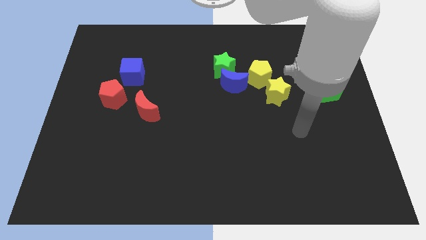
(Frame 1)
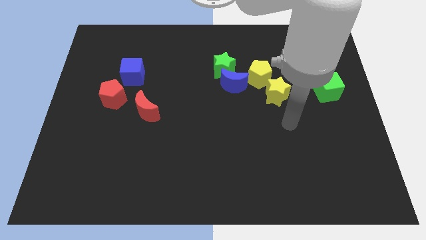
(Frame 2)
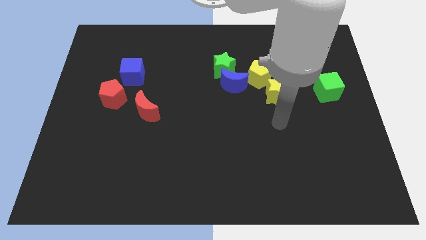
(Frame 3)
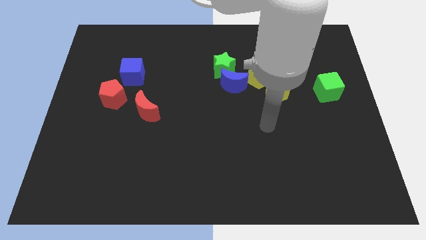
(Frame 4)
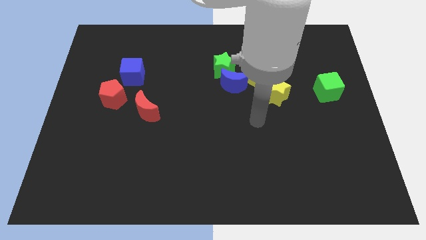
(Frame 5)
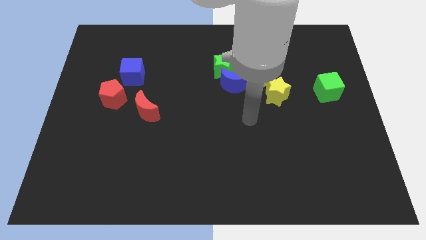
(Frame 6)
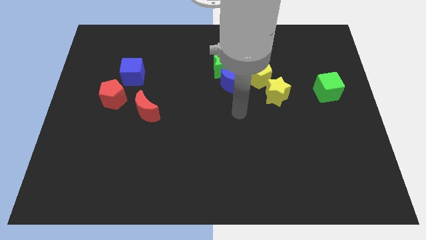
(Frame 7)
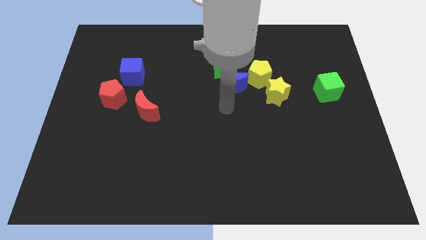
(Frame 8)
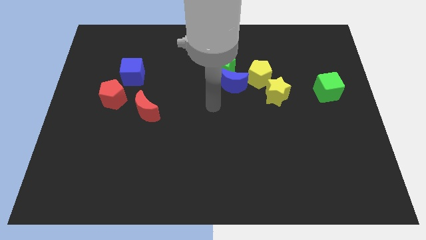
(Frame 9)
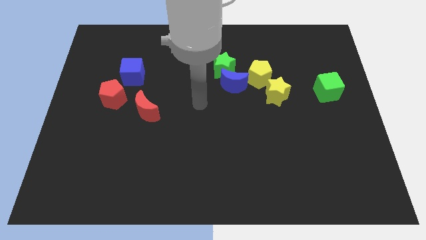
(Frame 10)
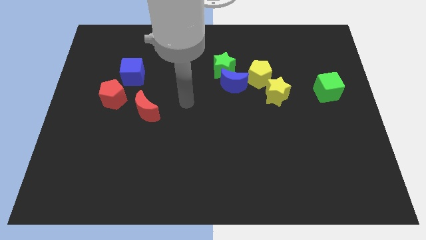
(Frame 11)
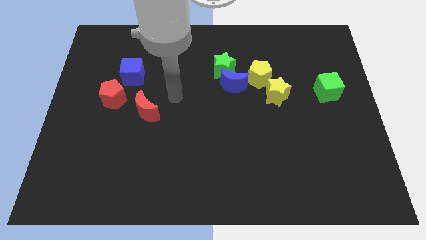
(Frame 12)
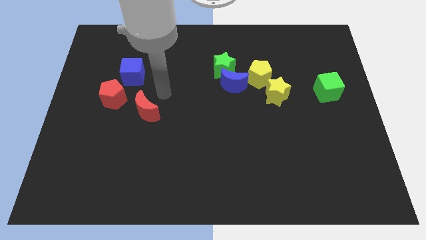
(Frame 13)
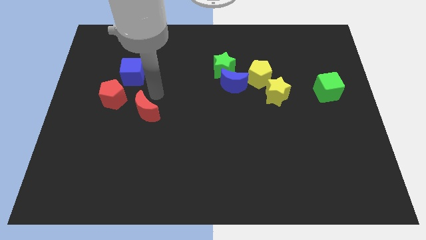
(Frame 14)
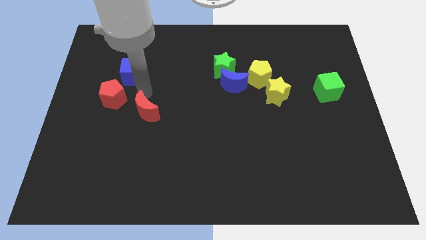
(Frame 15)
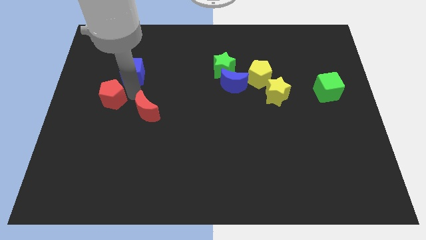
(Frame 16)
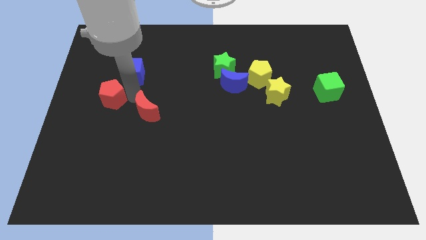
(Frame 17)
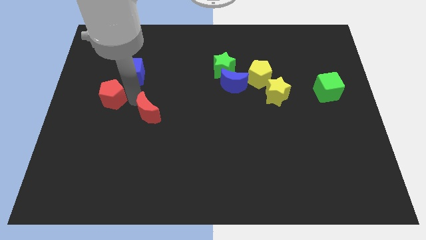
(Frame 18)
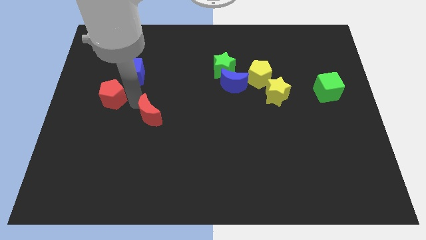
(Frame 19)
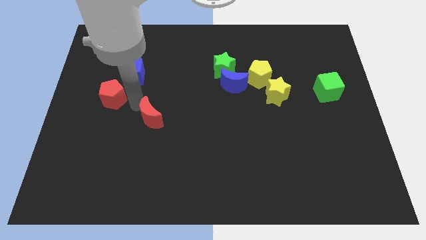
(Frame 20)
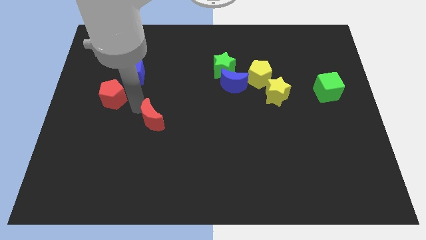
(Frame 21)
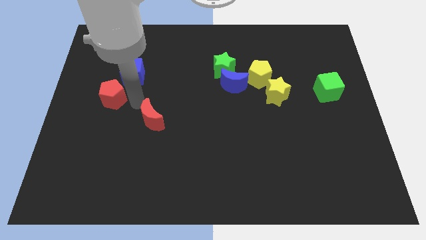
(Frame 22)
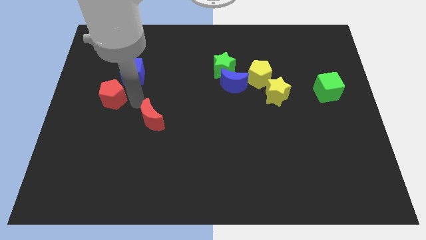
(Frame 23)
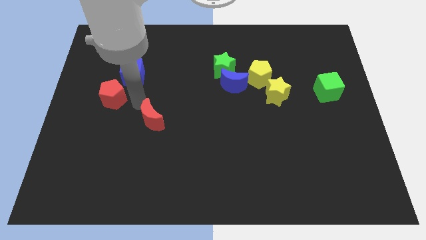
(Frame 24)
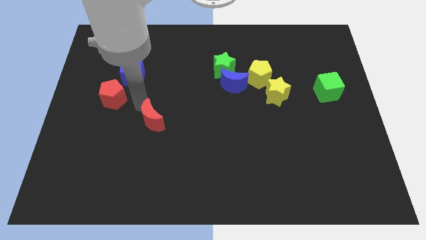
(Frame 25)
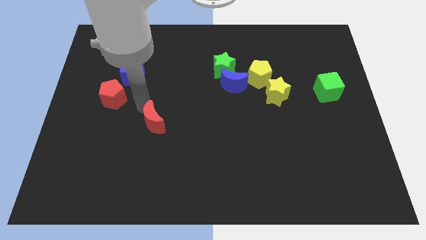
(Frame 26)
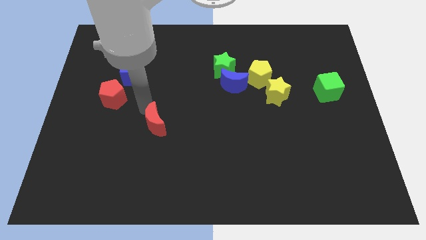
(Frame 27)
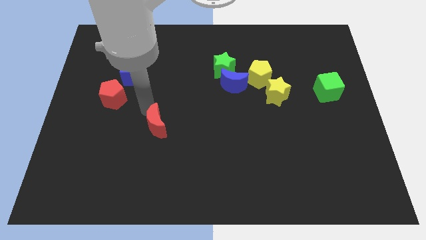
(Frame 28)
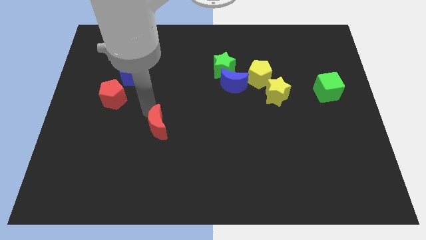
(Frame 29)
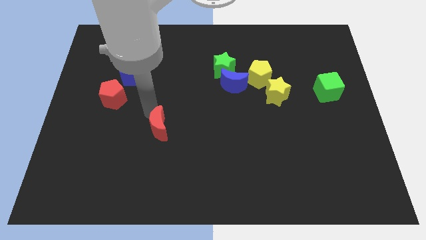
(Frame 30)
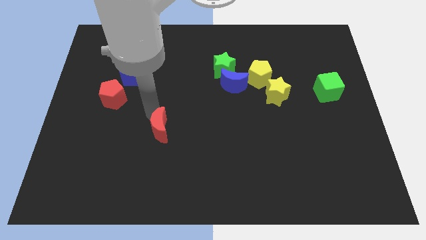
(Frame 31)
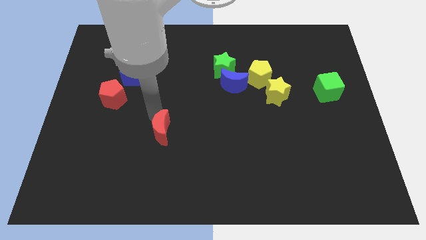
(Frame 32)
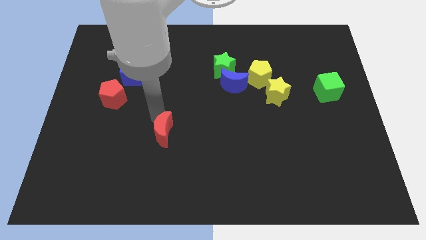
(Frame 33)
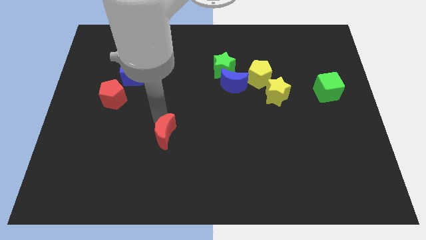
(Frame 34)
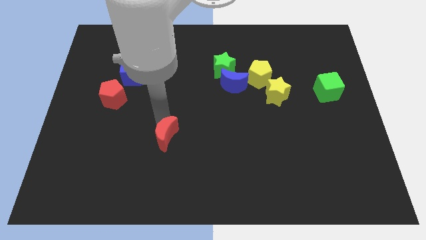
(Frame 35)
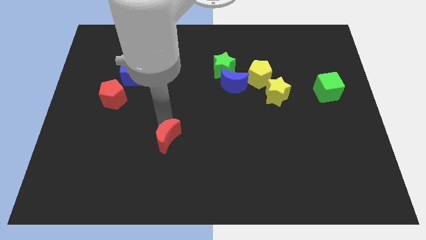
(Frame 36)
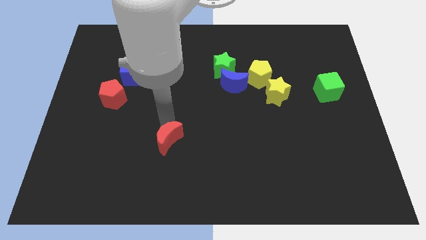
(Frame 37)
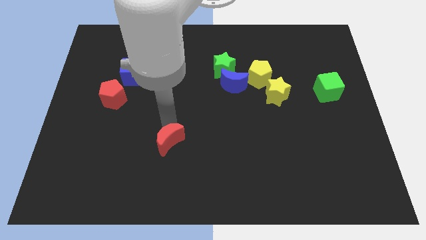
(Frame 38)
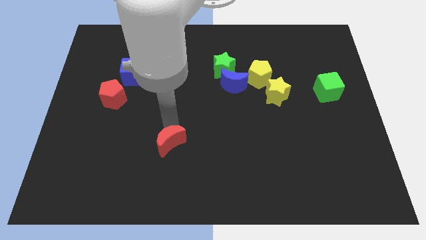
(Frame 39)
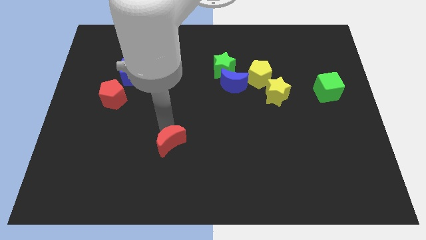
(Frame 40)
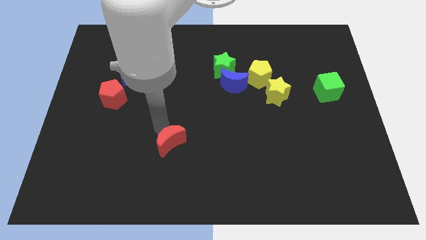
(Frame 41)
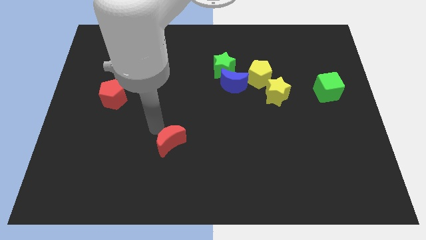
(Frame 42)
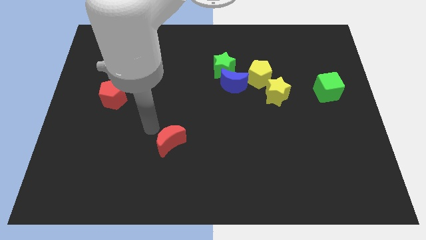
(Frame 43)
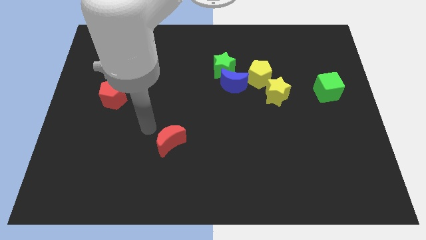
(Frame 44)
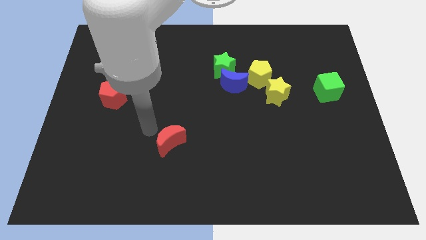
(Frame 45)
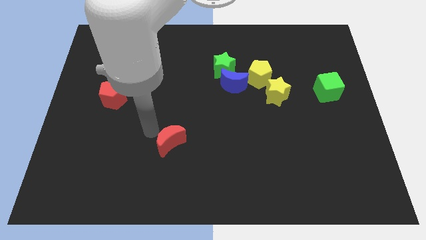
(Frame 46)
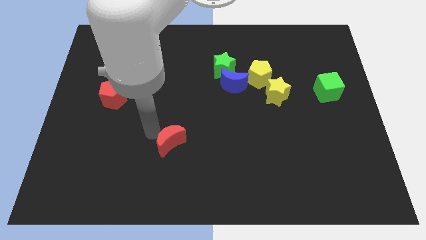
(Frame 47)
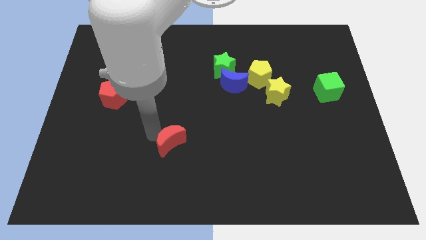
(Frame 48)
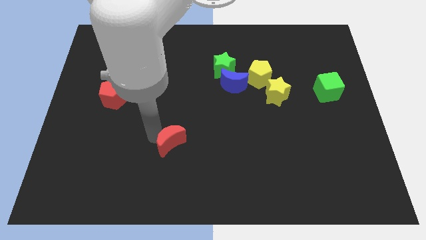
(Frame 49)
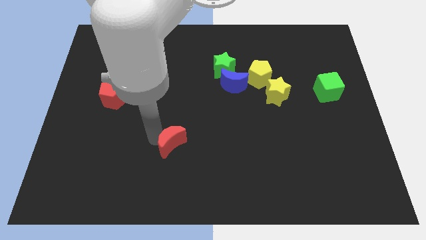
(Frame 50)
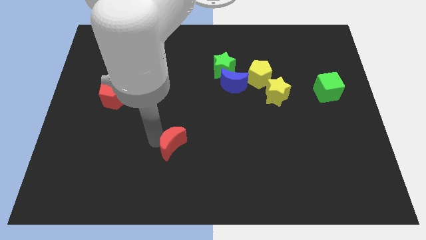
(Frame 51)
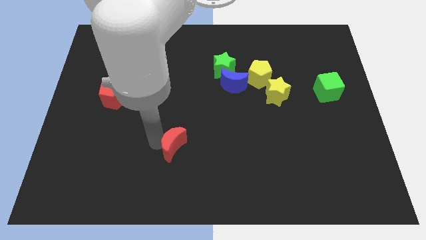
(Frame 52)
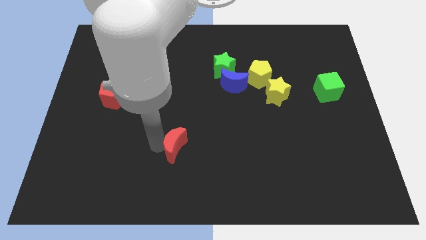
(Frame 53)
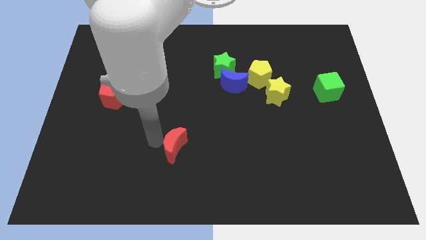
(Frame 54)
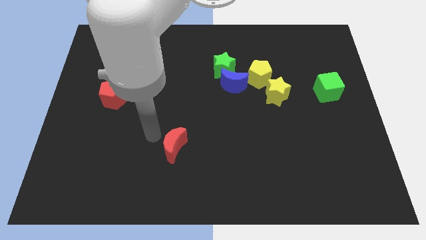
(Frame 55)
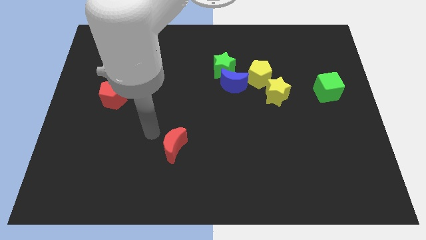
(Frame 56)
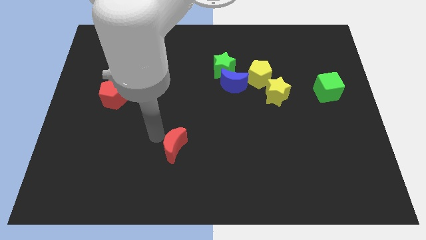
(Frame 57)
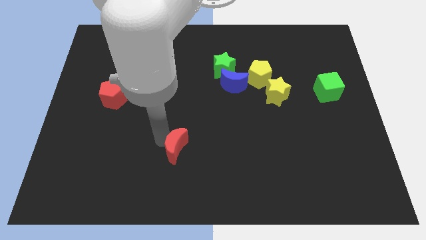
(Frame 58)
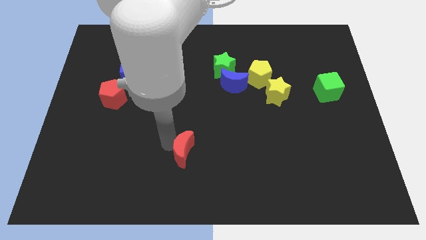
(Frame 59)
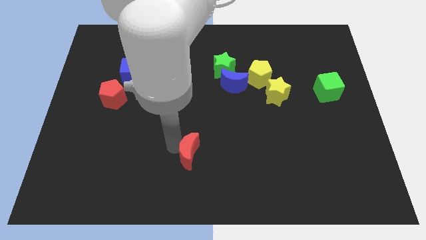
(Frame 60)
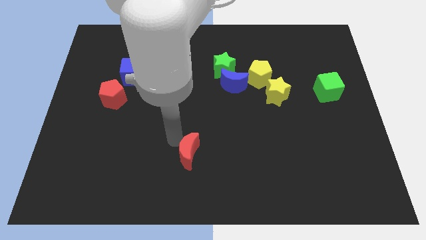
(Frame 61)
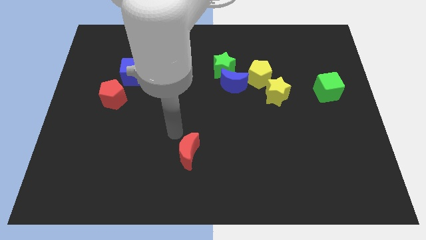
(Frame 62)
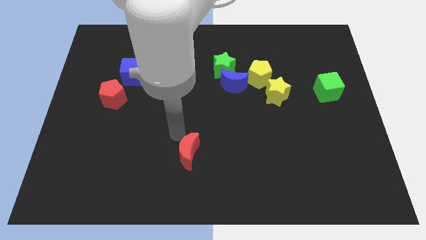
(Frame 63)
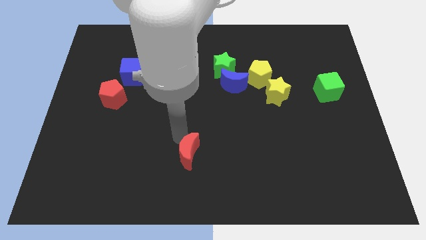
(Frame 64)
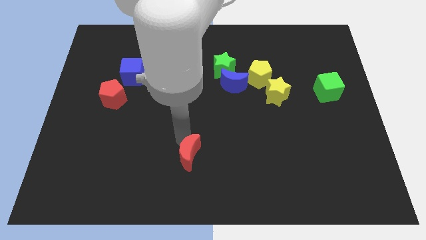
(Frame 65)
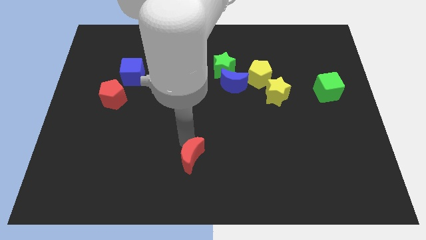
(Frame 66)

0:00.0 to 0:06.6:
move the red moon to the bottom side
